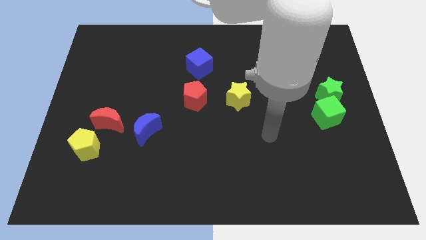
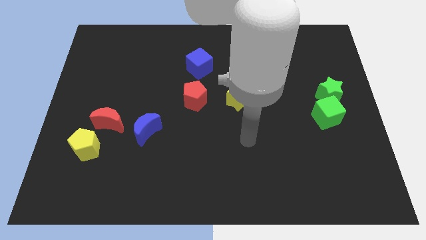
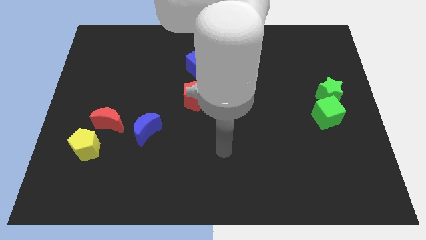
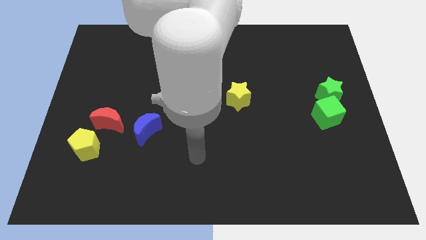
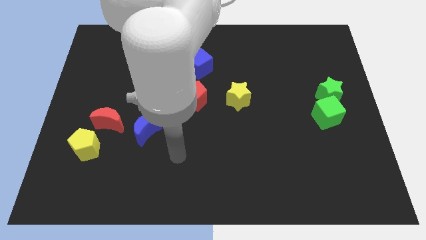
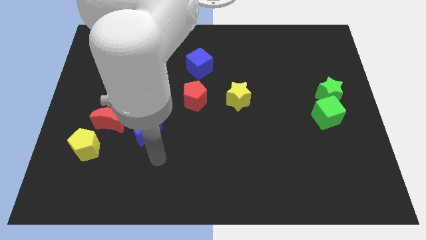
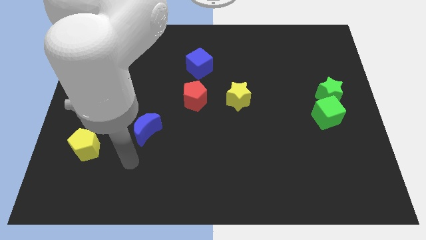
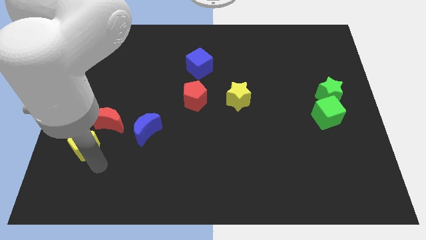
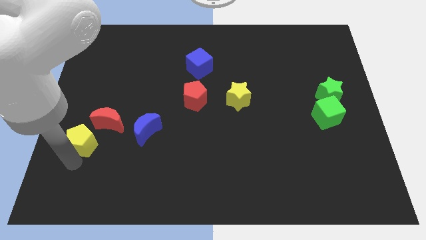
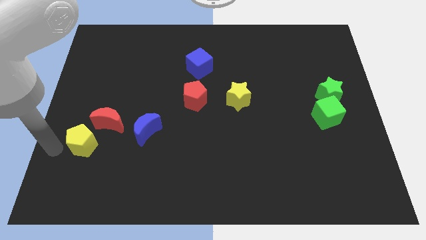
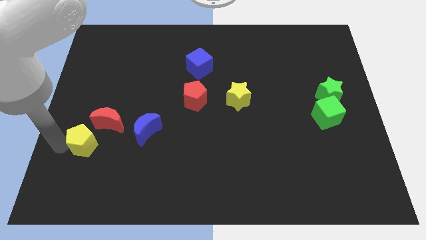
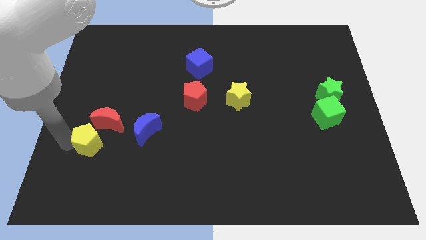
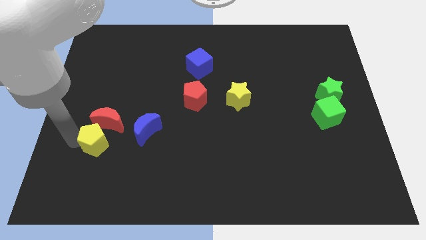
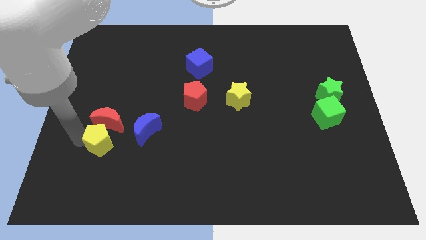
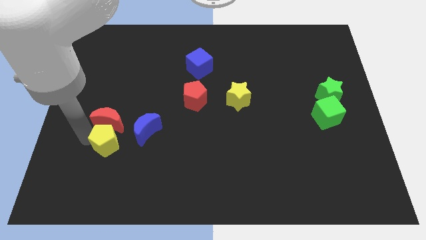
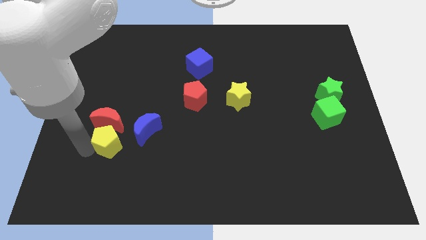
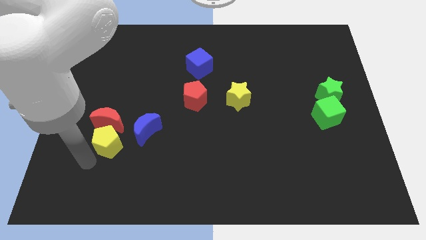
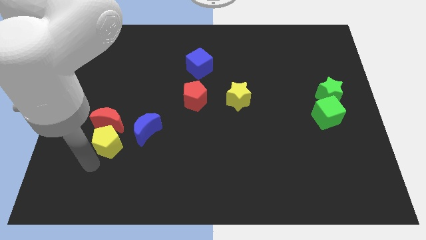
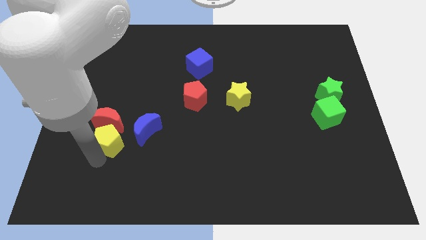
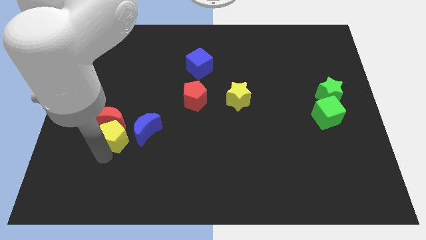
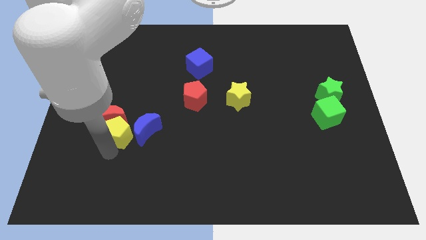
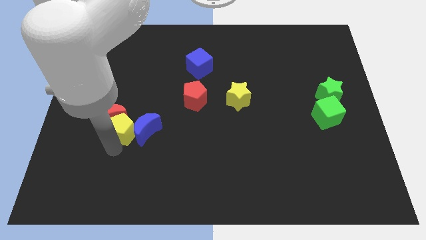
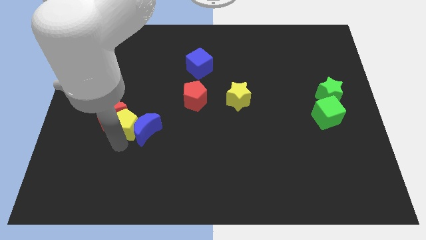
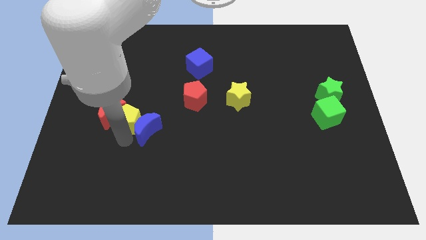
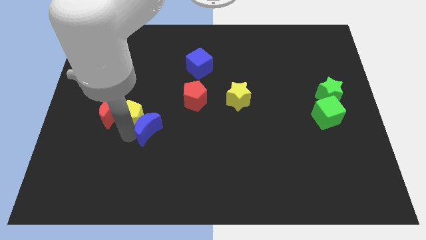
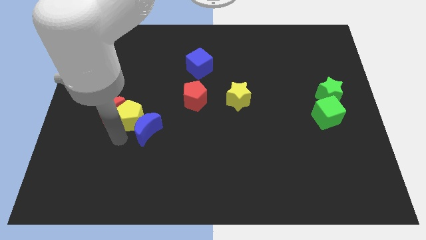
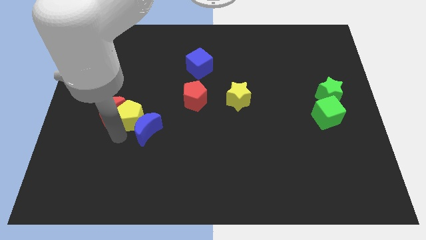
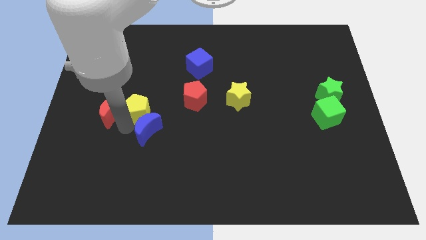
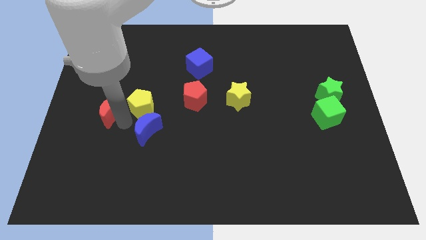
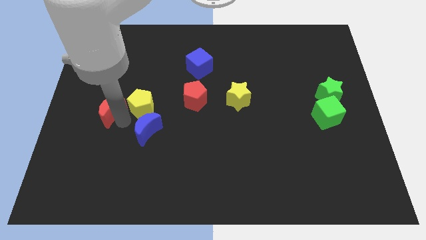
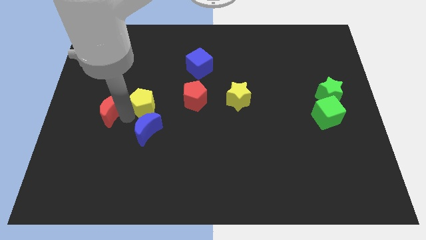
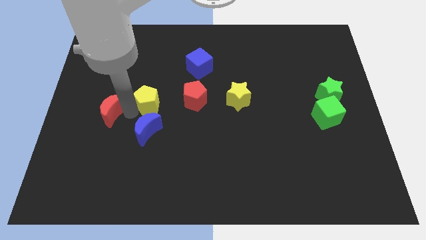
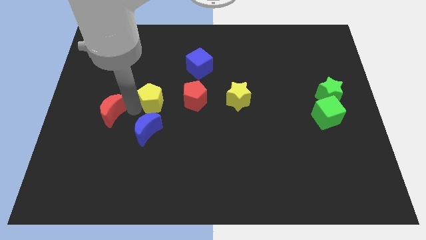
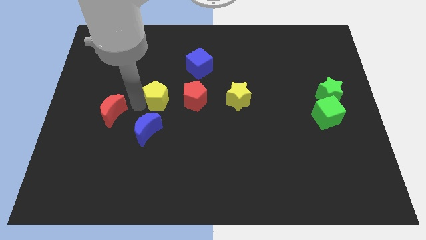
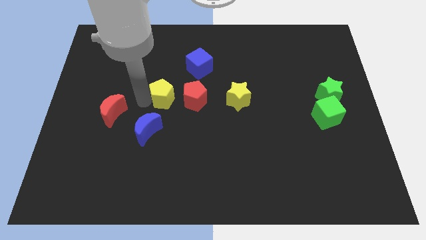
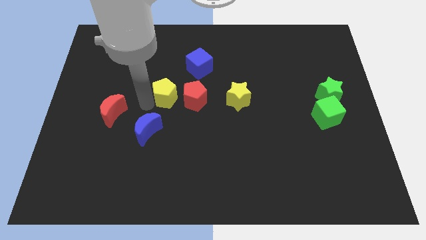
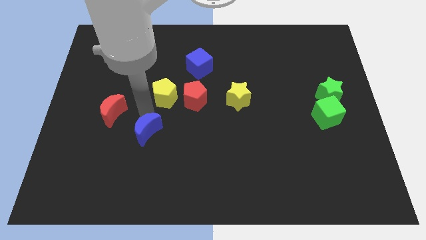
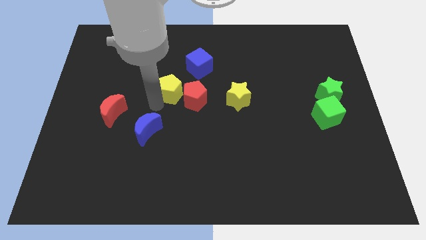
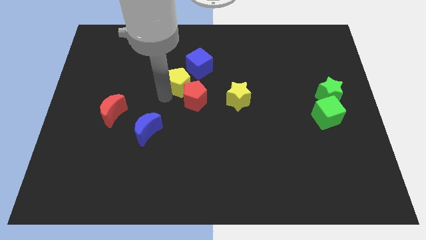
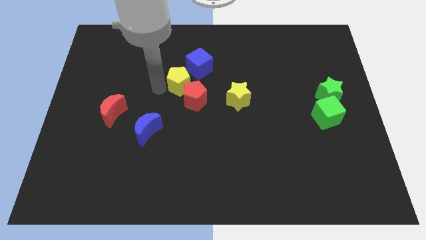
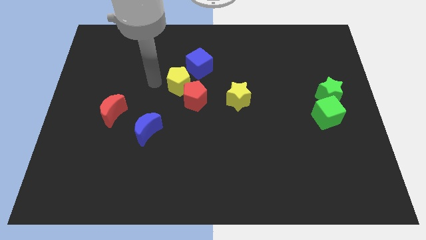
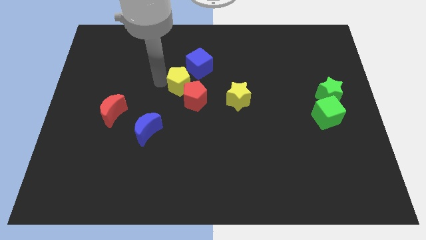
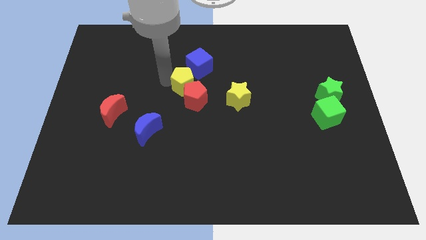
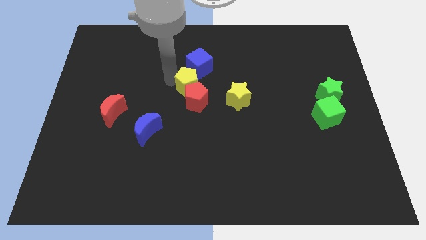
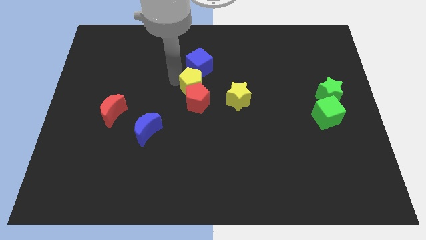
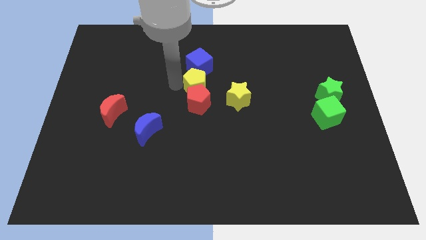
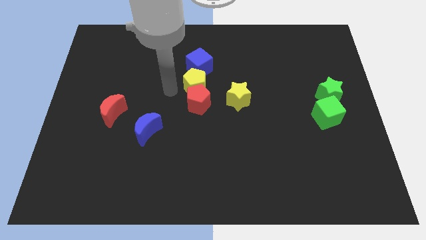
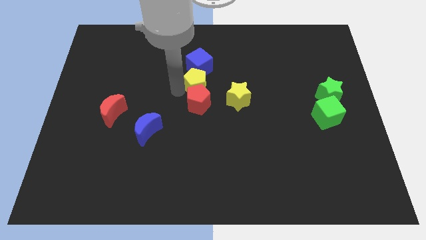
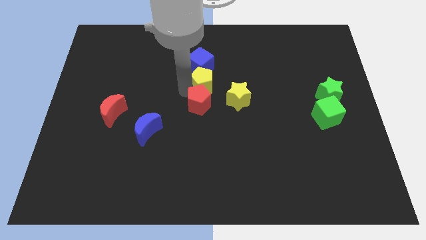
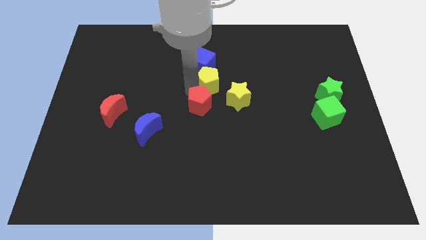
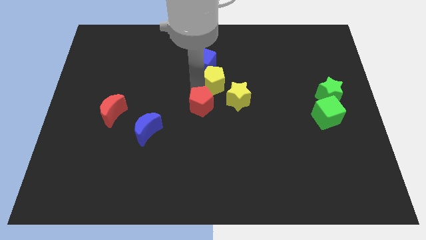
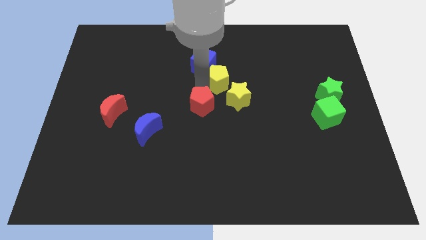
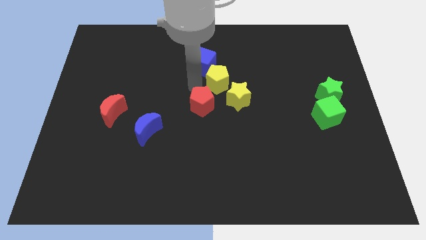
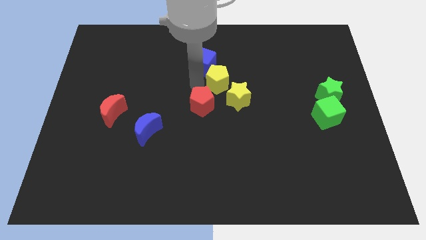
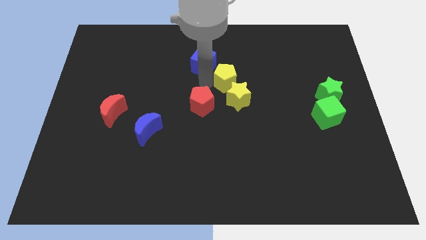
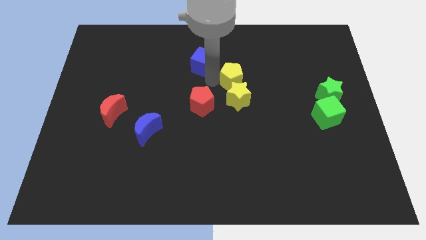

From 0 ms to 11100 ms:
put the yellow pentagon diagonally up and to the right of the yellow star

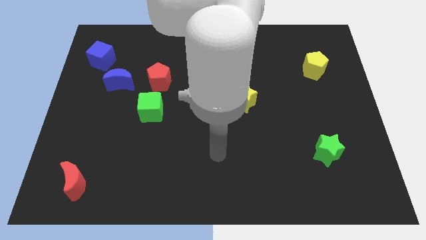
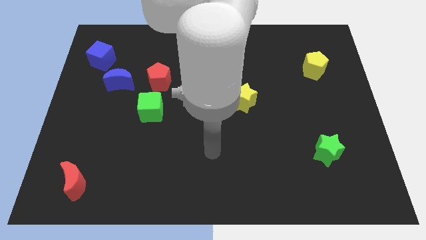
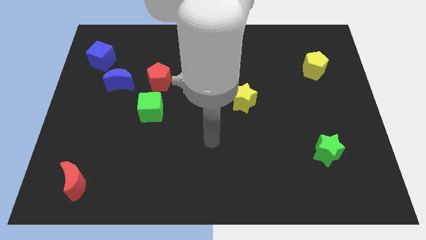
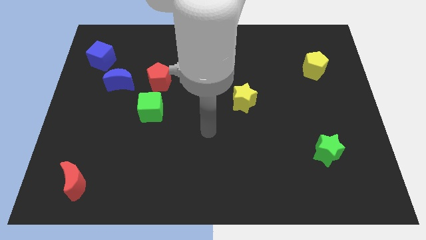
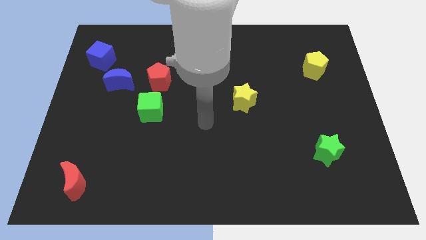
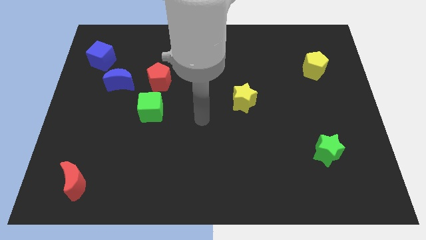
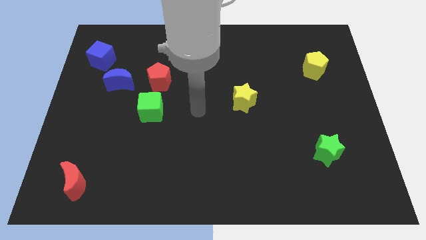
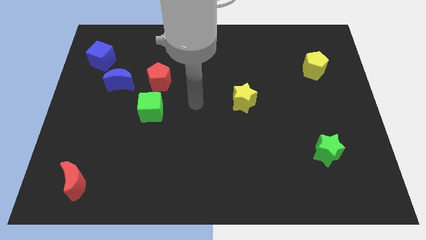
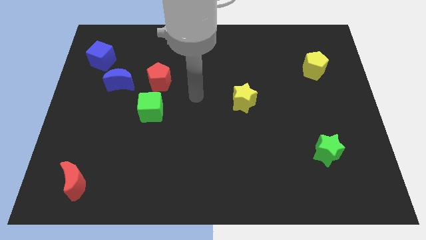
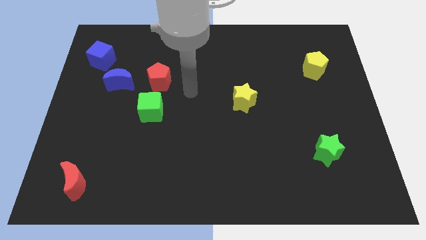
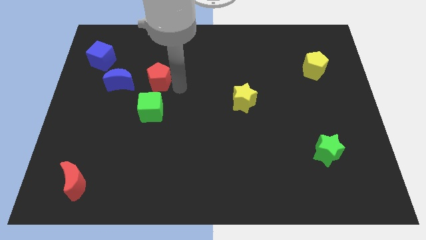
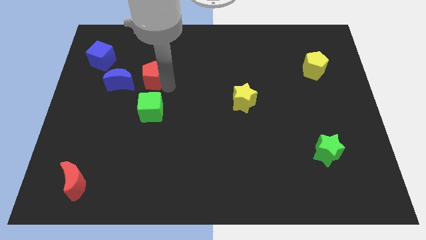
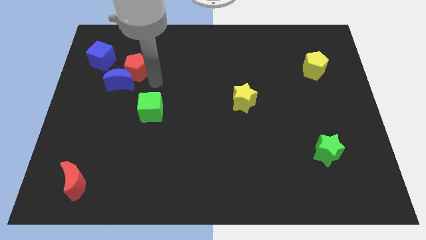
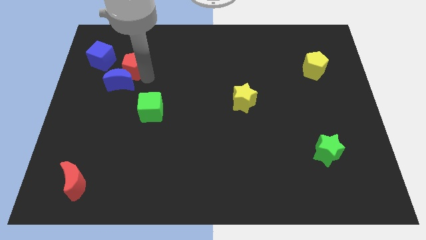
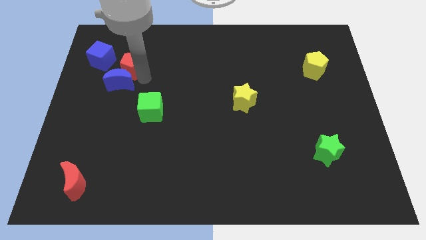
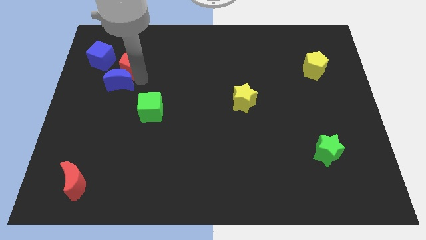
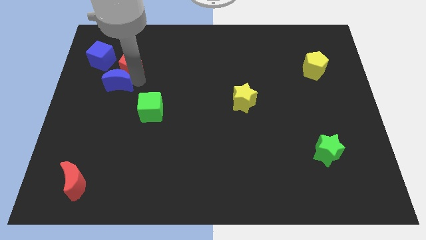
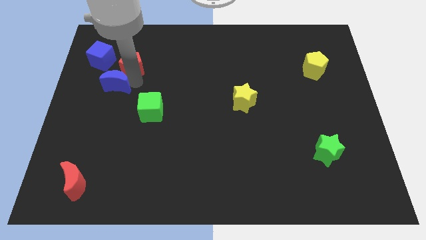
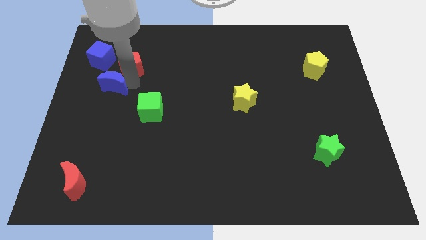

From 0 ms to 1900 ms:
slide the blue moon to the bottom of the blue cube
